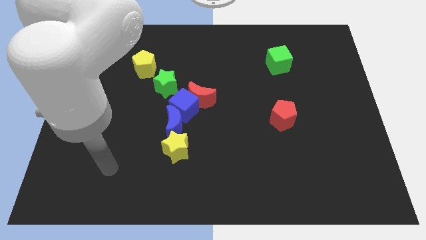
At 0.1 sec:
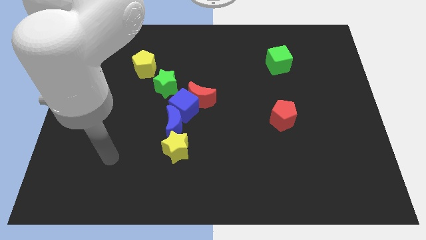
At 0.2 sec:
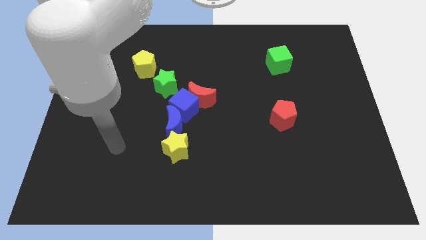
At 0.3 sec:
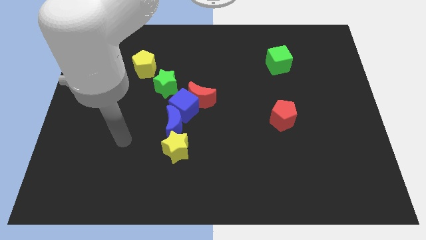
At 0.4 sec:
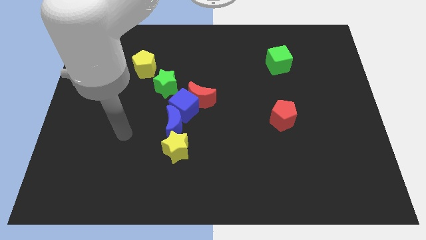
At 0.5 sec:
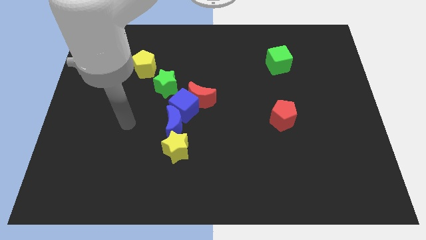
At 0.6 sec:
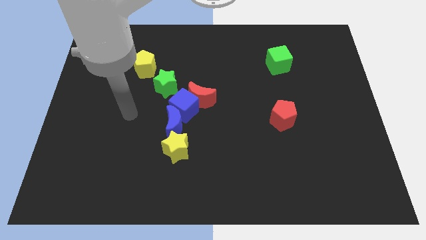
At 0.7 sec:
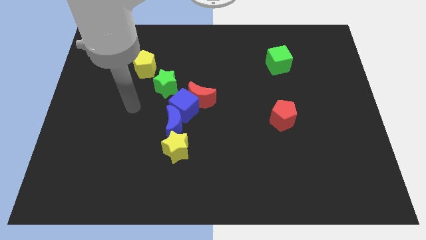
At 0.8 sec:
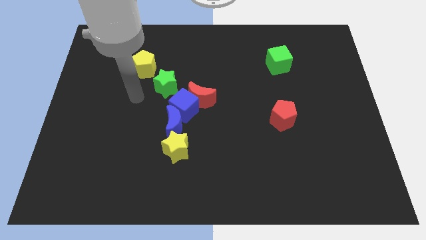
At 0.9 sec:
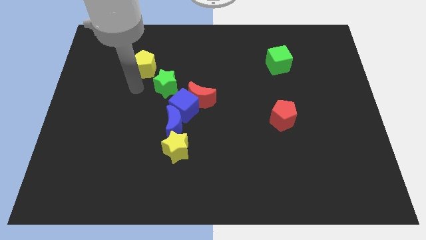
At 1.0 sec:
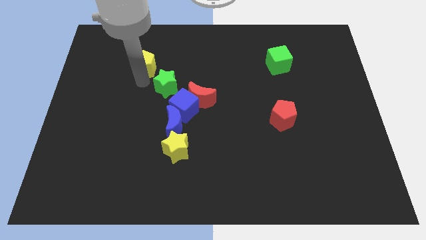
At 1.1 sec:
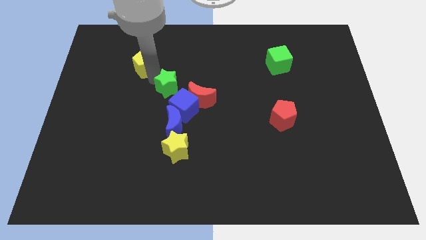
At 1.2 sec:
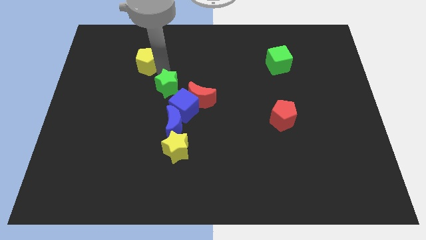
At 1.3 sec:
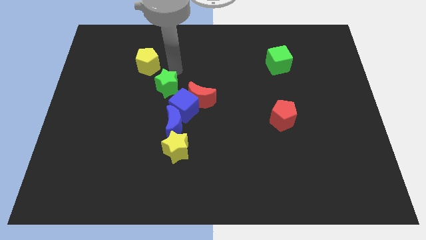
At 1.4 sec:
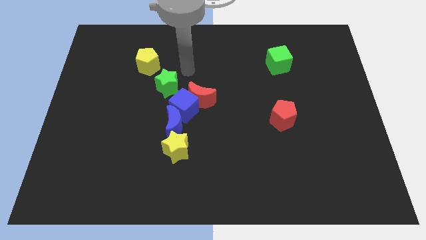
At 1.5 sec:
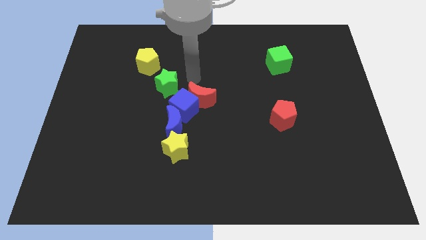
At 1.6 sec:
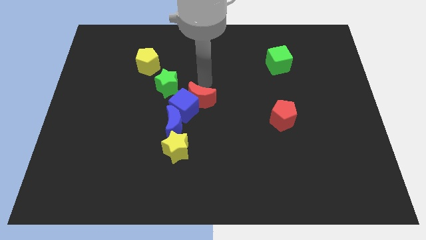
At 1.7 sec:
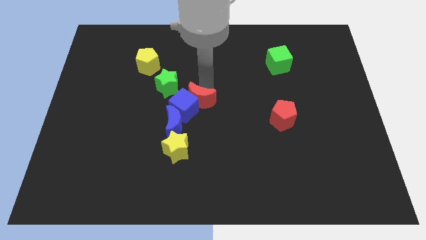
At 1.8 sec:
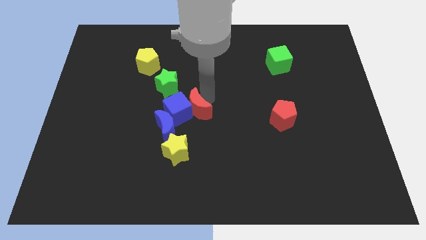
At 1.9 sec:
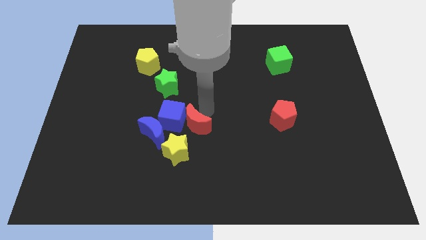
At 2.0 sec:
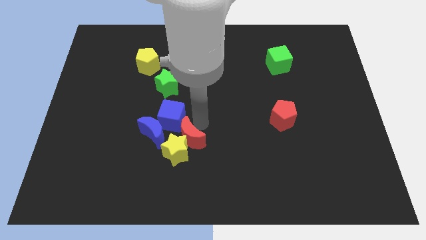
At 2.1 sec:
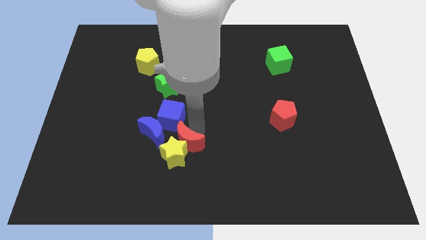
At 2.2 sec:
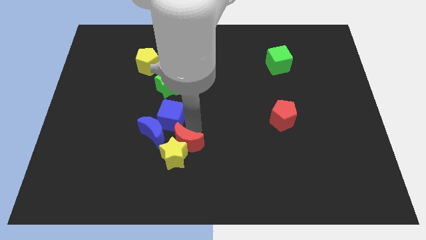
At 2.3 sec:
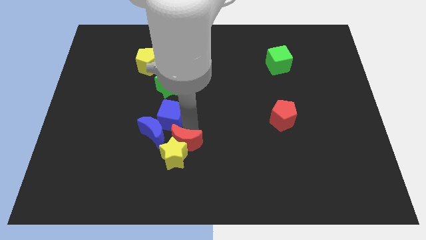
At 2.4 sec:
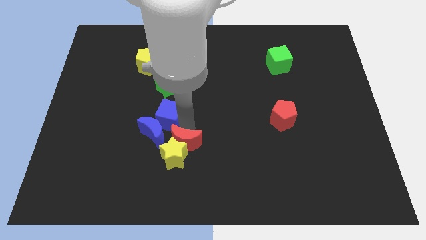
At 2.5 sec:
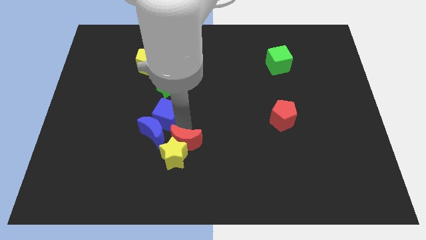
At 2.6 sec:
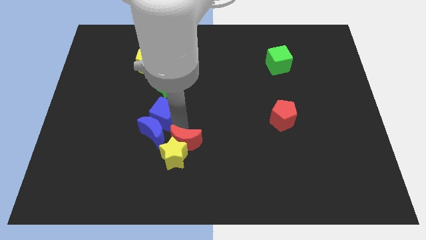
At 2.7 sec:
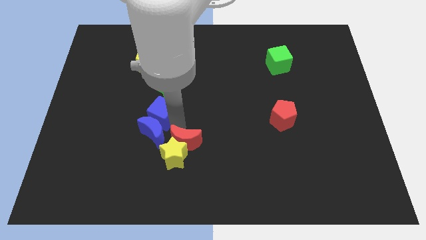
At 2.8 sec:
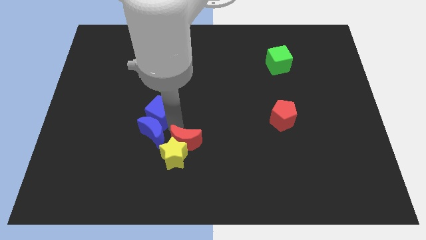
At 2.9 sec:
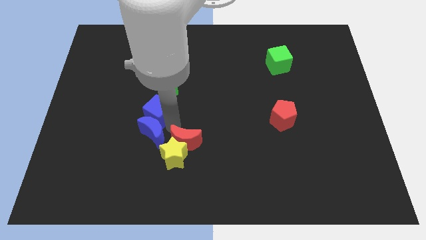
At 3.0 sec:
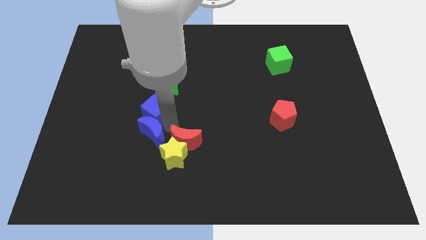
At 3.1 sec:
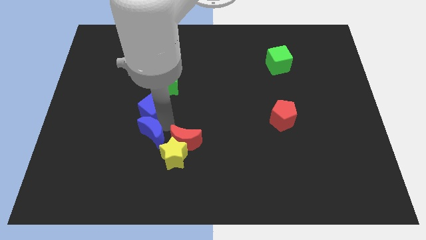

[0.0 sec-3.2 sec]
slide the blue cube left a bit

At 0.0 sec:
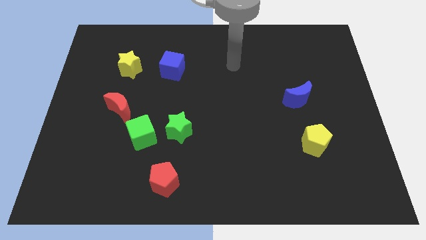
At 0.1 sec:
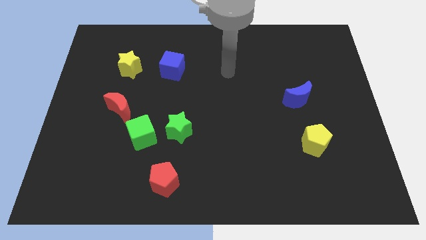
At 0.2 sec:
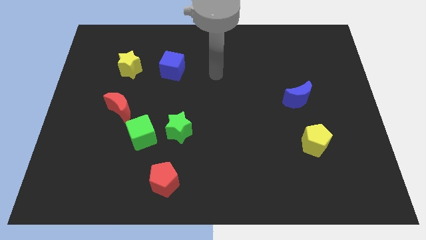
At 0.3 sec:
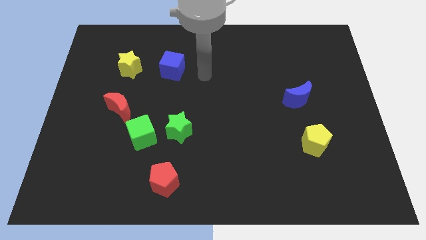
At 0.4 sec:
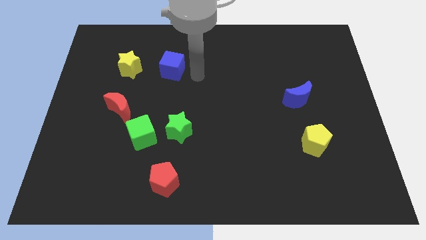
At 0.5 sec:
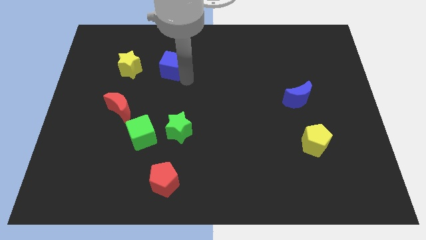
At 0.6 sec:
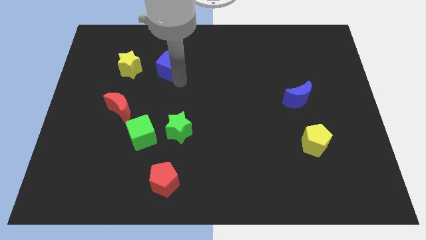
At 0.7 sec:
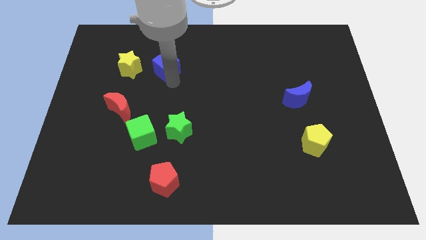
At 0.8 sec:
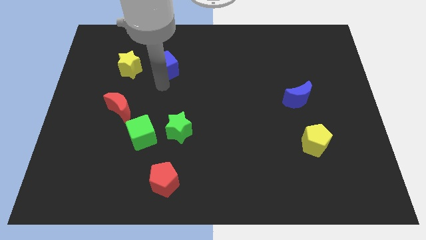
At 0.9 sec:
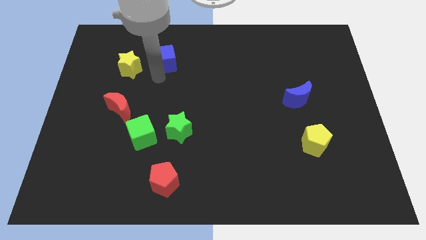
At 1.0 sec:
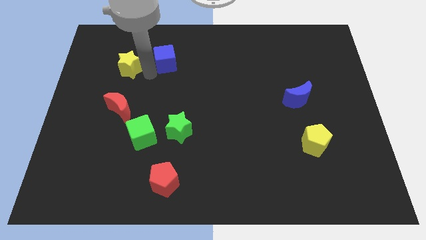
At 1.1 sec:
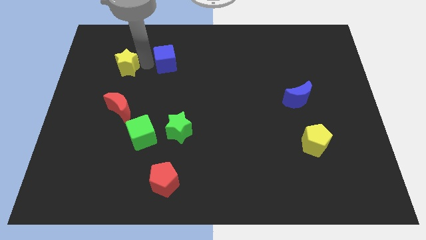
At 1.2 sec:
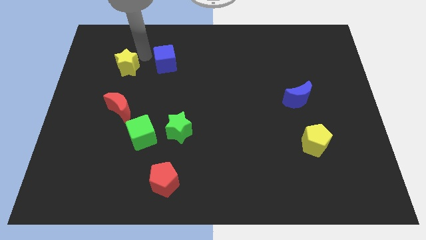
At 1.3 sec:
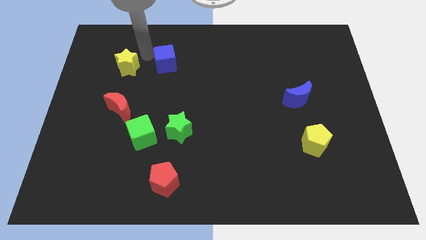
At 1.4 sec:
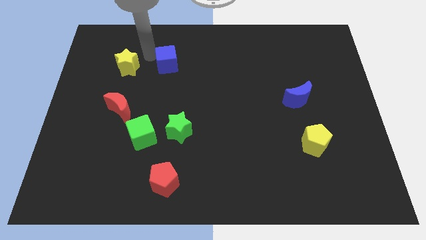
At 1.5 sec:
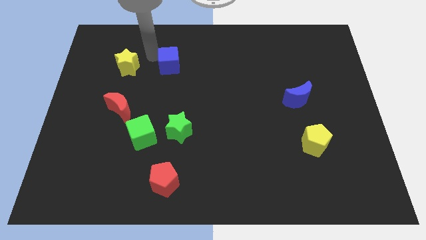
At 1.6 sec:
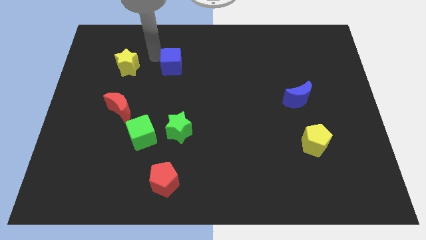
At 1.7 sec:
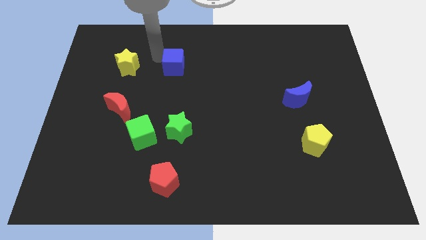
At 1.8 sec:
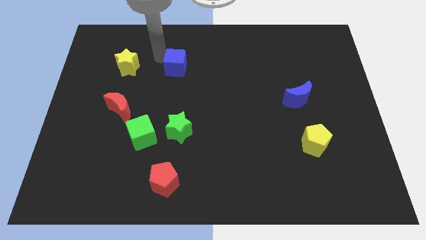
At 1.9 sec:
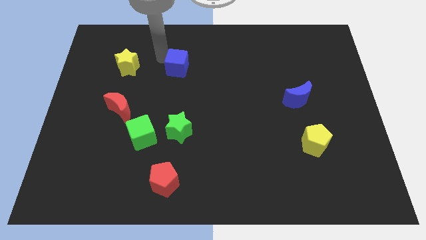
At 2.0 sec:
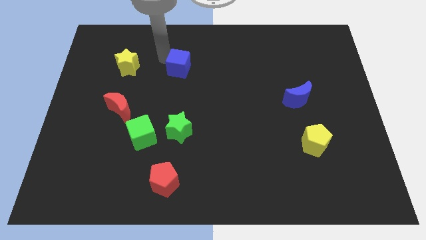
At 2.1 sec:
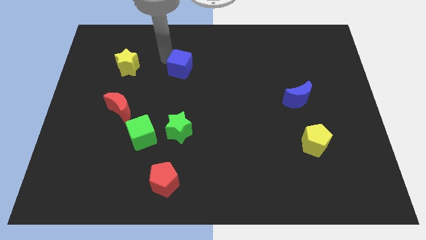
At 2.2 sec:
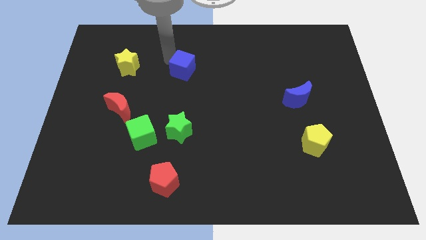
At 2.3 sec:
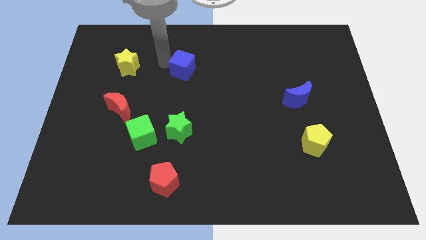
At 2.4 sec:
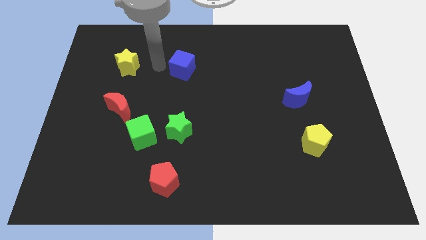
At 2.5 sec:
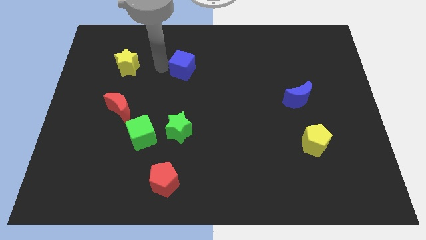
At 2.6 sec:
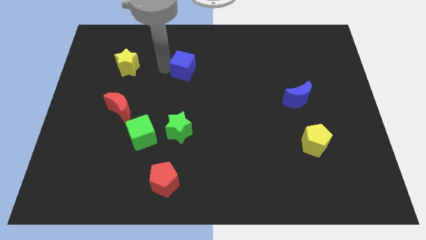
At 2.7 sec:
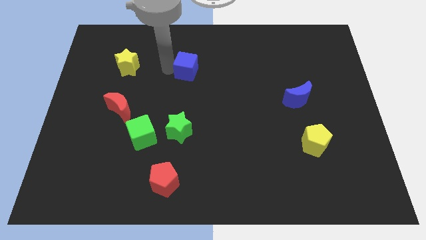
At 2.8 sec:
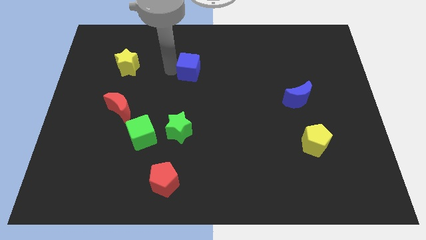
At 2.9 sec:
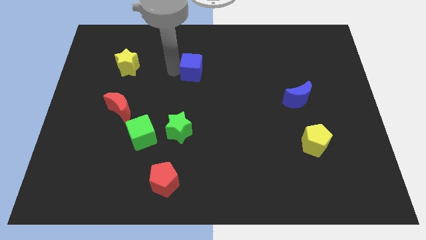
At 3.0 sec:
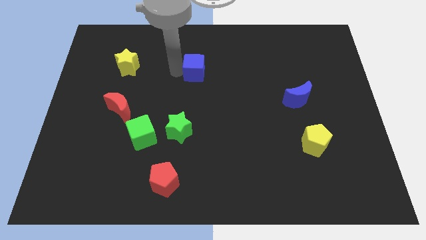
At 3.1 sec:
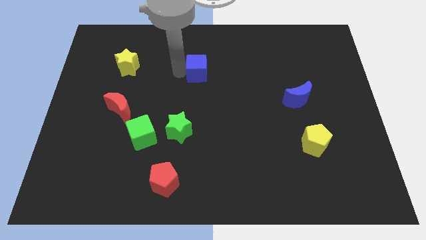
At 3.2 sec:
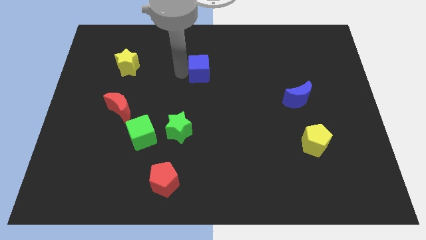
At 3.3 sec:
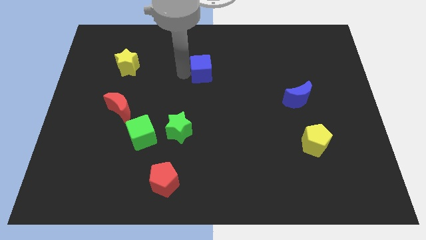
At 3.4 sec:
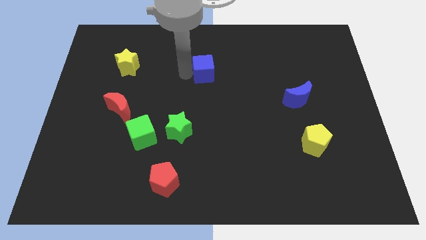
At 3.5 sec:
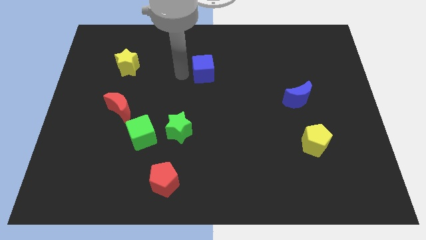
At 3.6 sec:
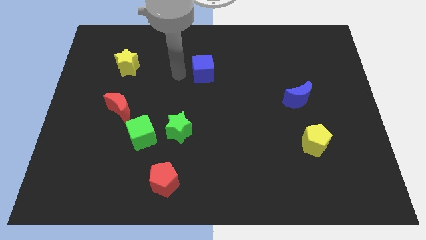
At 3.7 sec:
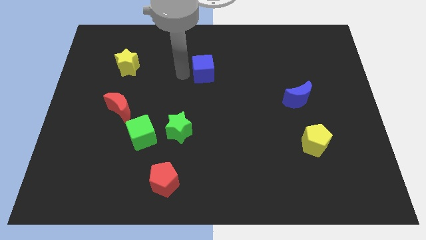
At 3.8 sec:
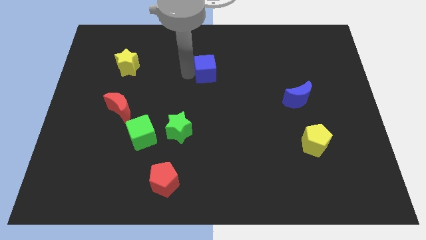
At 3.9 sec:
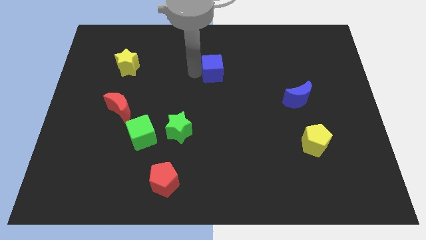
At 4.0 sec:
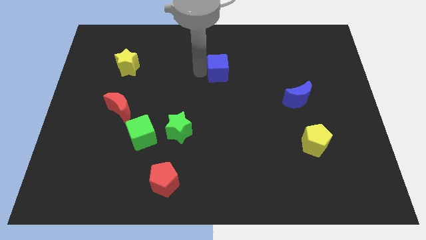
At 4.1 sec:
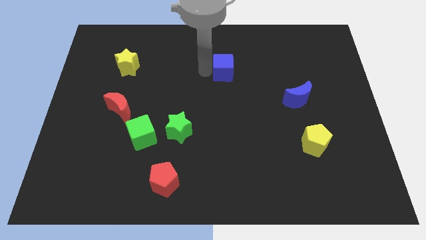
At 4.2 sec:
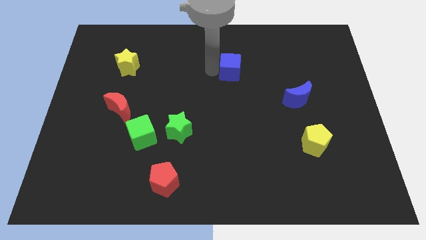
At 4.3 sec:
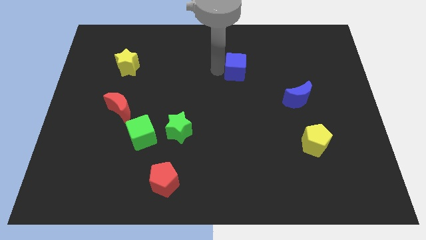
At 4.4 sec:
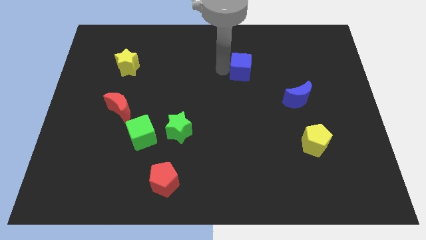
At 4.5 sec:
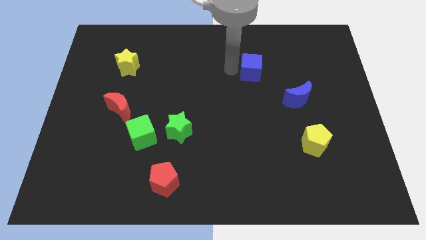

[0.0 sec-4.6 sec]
move the blue cube right

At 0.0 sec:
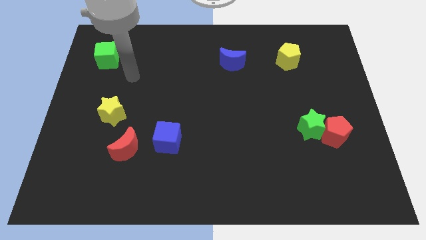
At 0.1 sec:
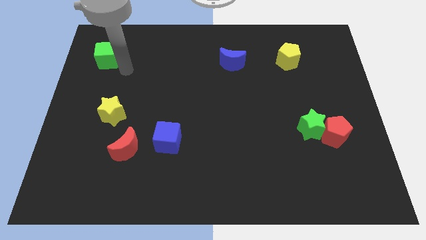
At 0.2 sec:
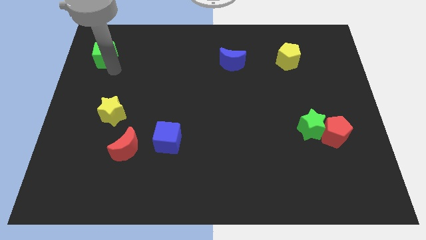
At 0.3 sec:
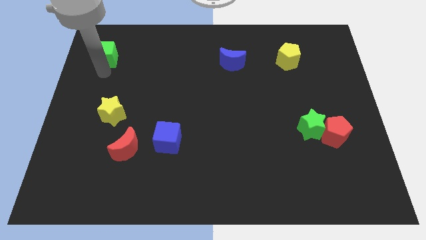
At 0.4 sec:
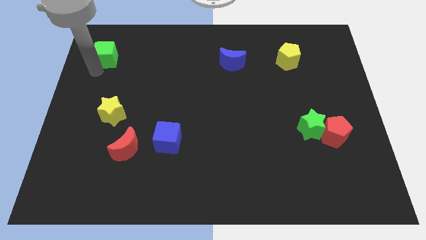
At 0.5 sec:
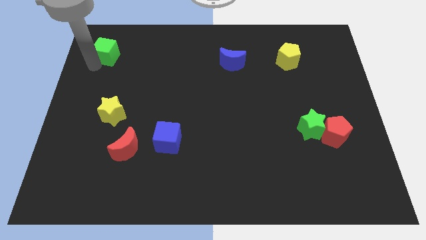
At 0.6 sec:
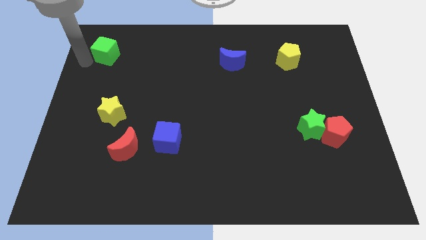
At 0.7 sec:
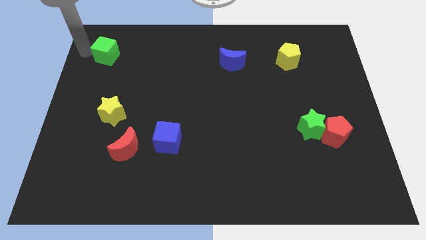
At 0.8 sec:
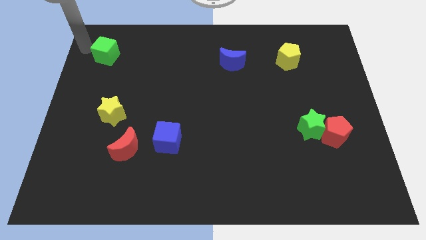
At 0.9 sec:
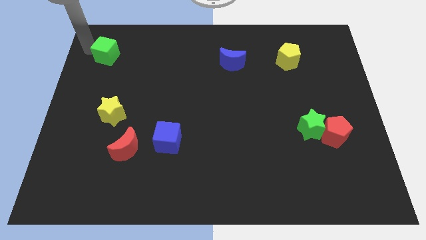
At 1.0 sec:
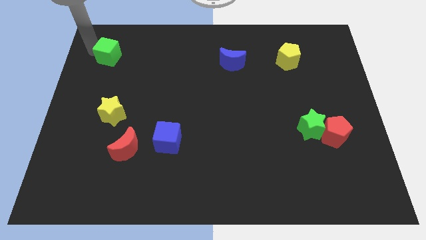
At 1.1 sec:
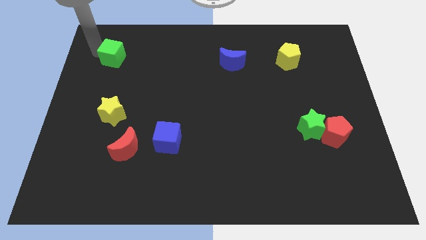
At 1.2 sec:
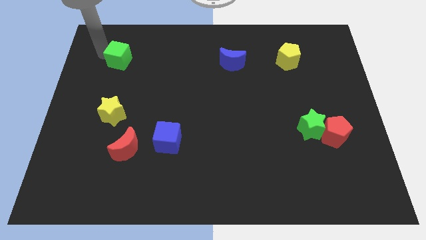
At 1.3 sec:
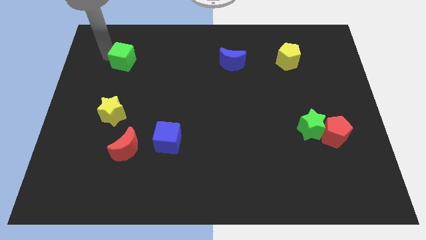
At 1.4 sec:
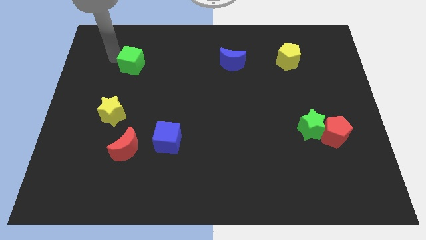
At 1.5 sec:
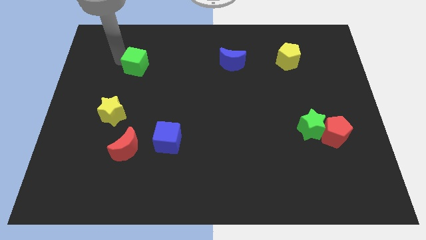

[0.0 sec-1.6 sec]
push the green cube slightly to the right
